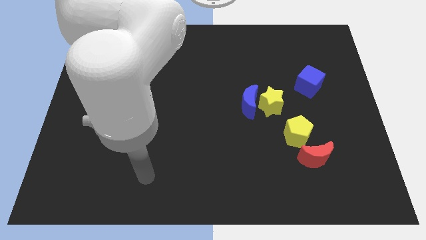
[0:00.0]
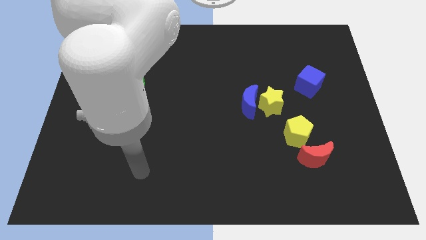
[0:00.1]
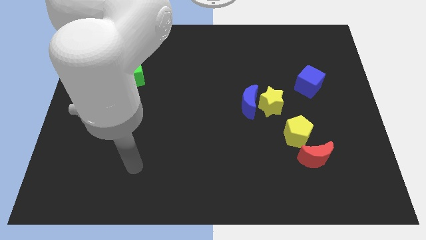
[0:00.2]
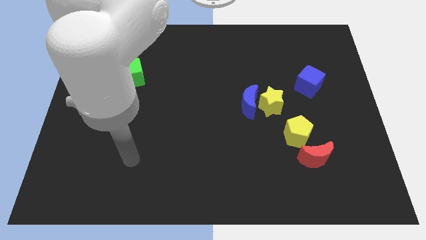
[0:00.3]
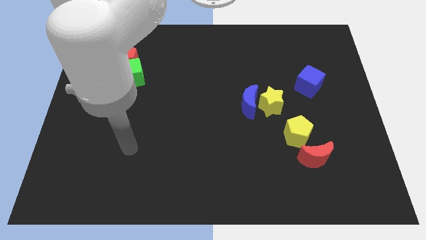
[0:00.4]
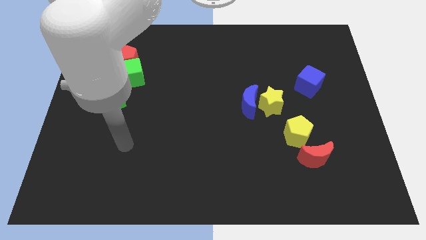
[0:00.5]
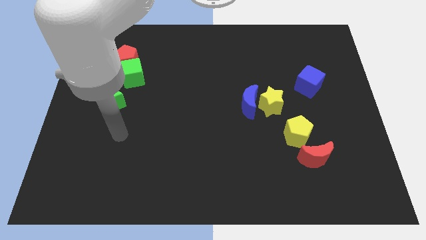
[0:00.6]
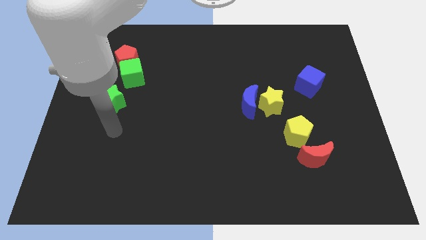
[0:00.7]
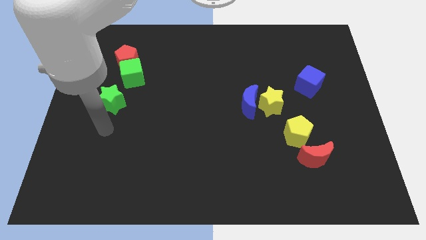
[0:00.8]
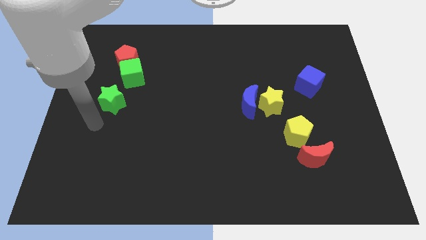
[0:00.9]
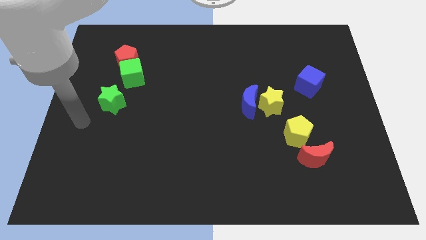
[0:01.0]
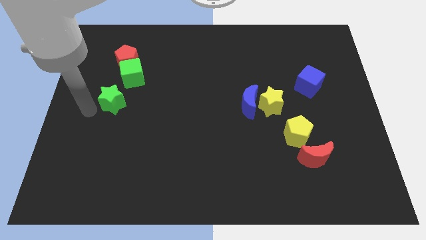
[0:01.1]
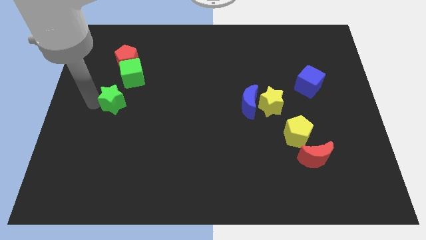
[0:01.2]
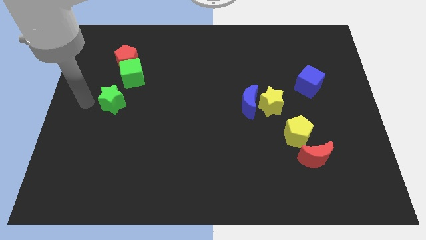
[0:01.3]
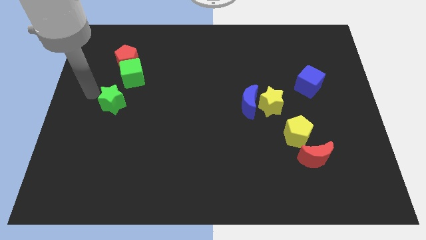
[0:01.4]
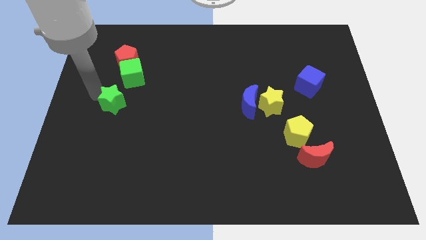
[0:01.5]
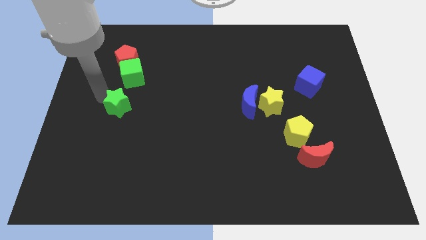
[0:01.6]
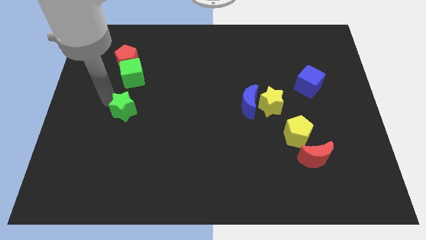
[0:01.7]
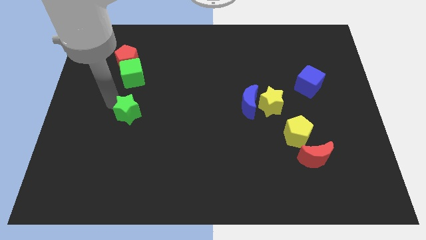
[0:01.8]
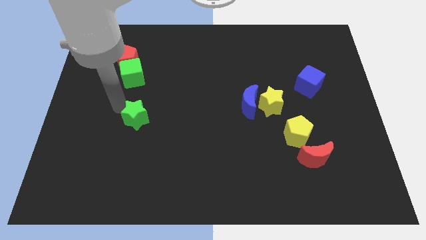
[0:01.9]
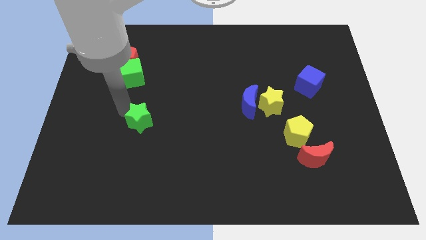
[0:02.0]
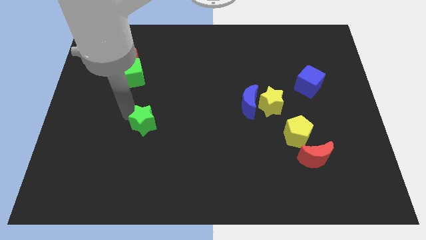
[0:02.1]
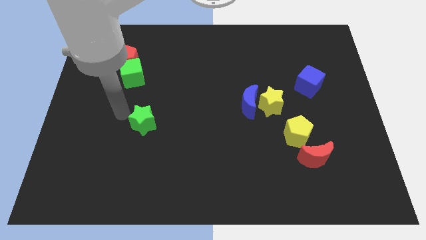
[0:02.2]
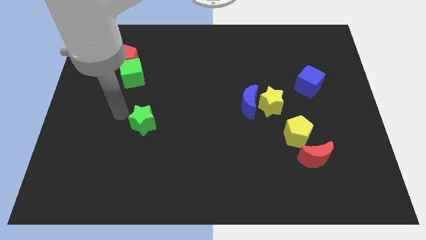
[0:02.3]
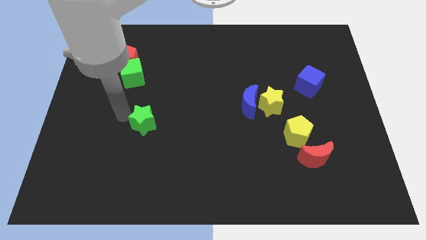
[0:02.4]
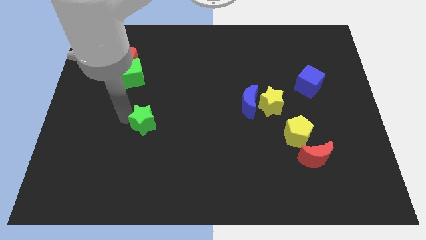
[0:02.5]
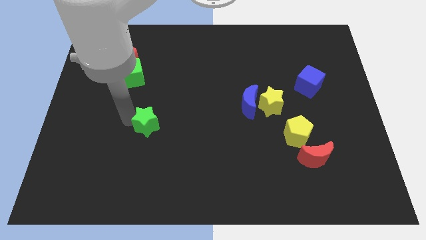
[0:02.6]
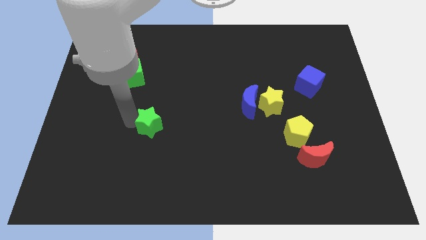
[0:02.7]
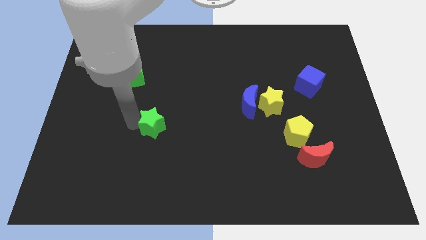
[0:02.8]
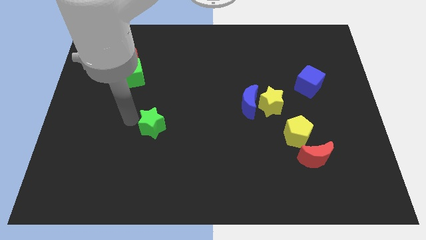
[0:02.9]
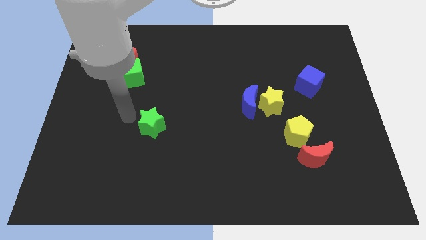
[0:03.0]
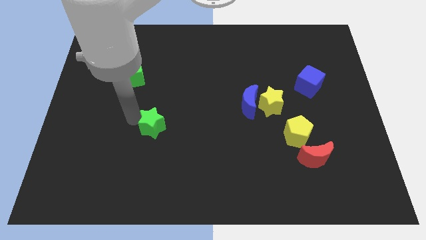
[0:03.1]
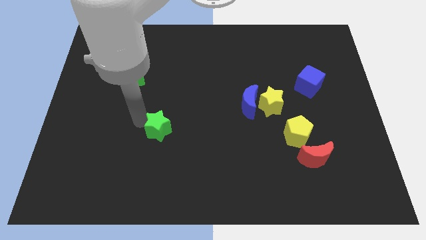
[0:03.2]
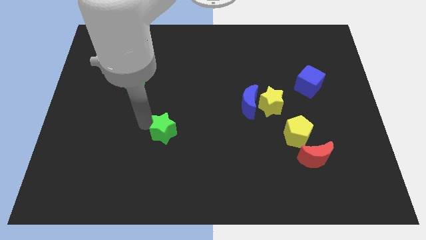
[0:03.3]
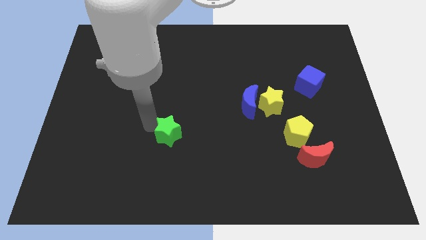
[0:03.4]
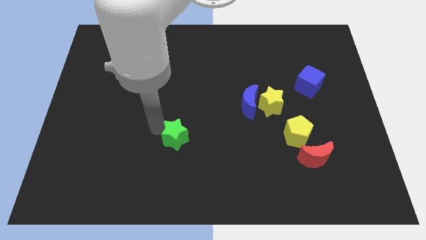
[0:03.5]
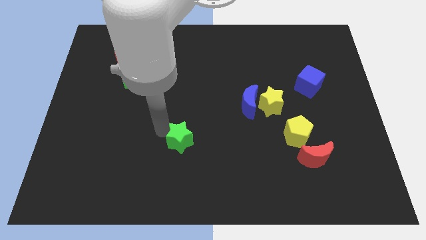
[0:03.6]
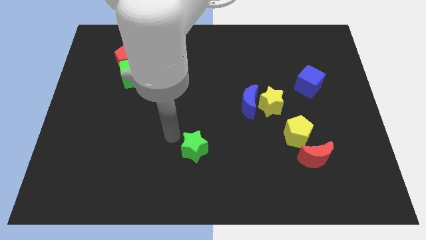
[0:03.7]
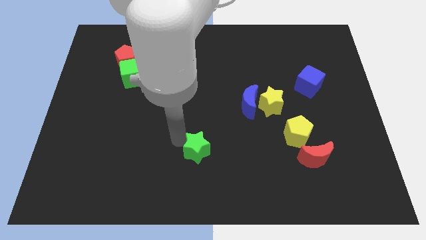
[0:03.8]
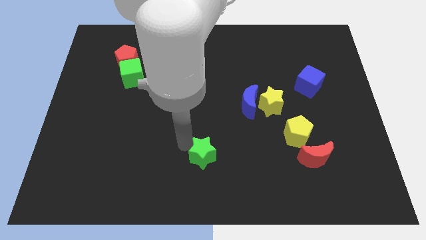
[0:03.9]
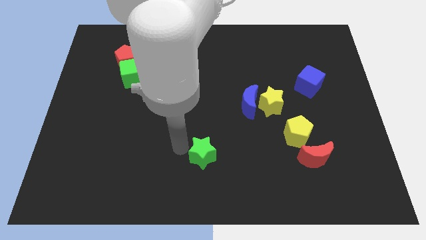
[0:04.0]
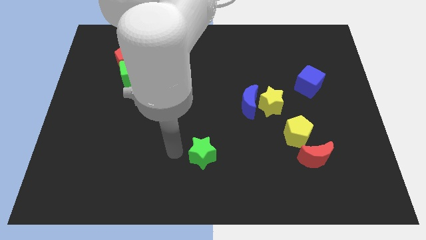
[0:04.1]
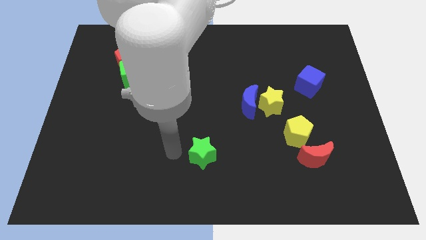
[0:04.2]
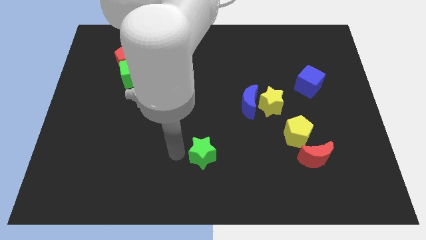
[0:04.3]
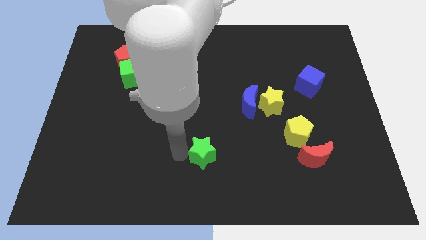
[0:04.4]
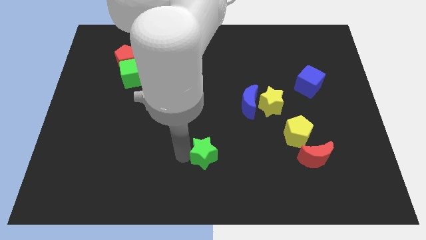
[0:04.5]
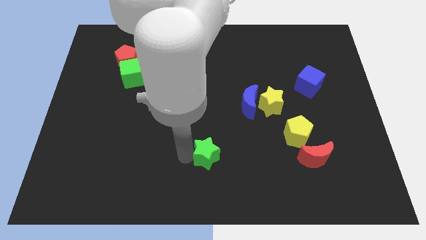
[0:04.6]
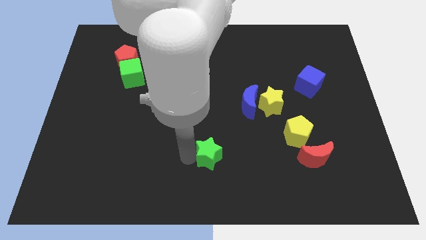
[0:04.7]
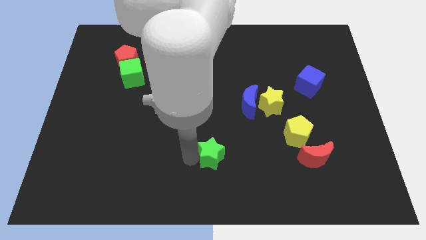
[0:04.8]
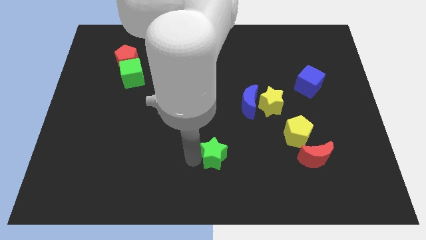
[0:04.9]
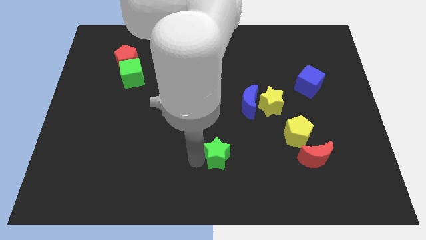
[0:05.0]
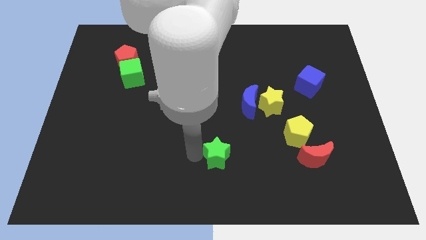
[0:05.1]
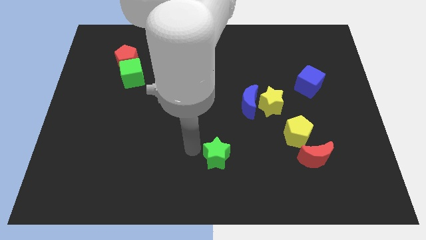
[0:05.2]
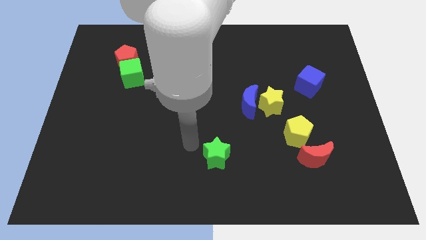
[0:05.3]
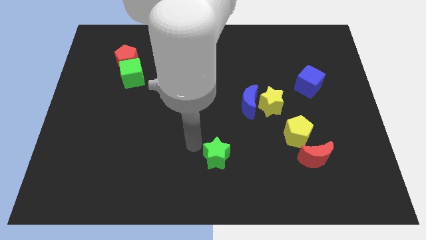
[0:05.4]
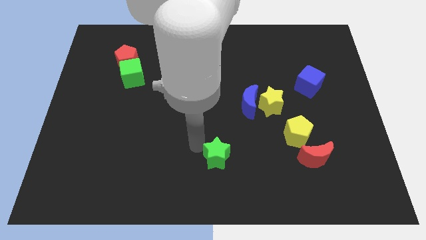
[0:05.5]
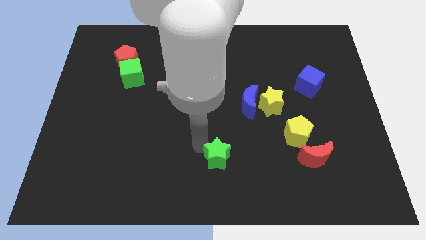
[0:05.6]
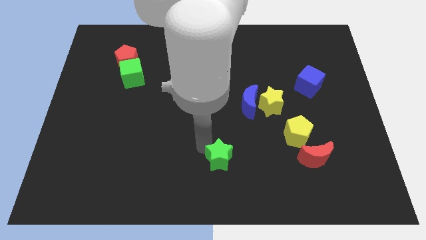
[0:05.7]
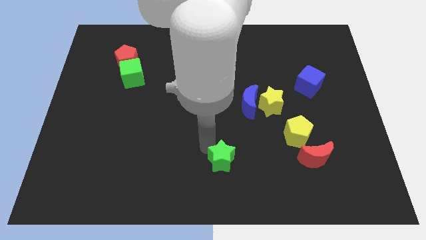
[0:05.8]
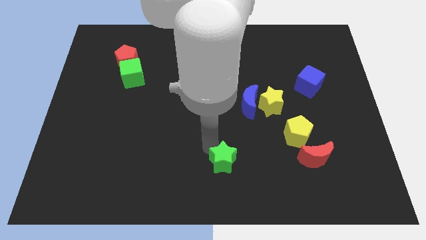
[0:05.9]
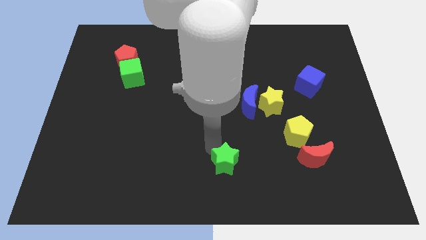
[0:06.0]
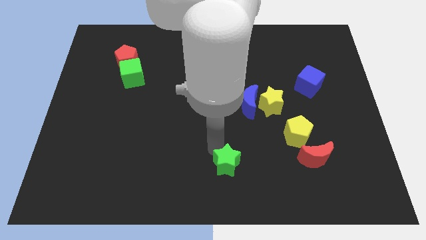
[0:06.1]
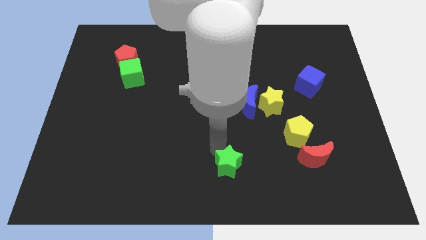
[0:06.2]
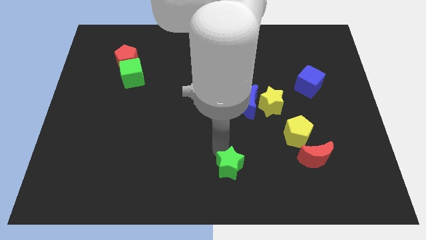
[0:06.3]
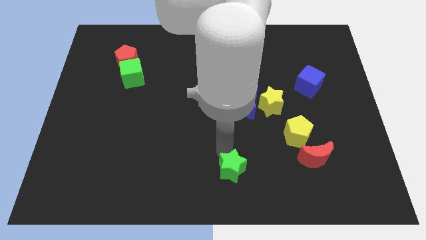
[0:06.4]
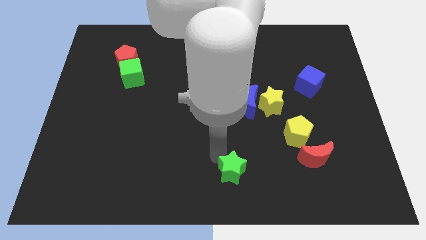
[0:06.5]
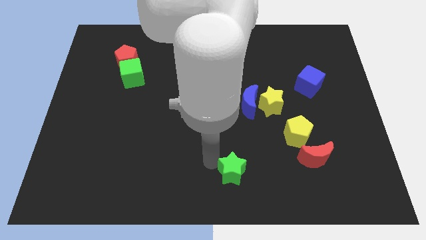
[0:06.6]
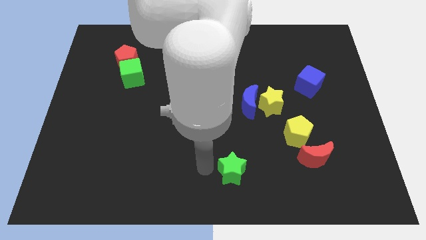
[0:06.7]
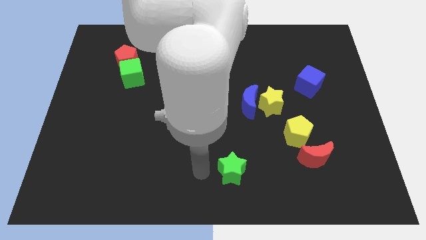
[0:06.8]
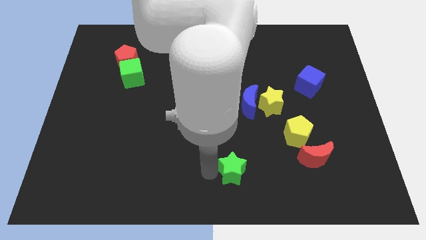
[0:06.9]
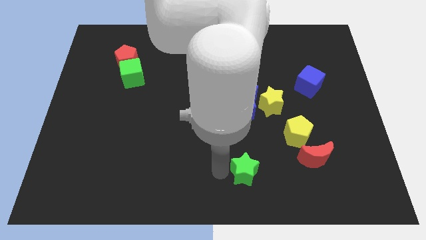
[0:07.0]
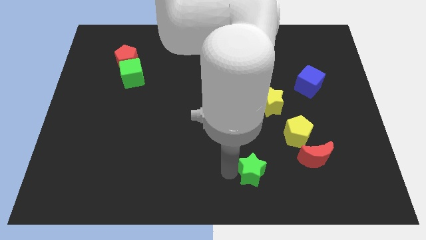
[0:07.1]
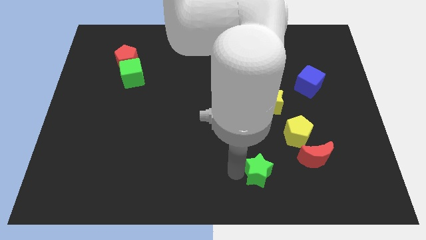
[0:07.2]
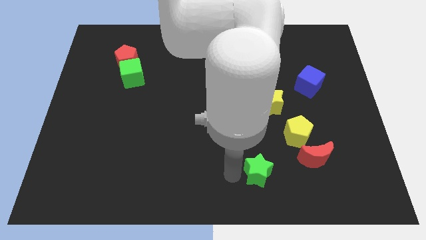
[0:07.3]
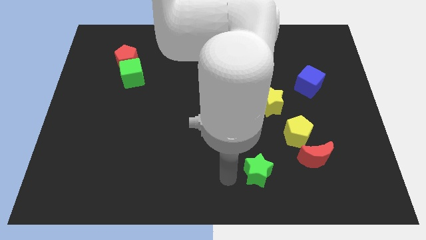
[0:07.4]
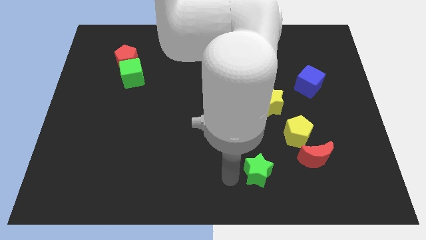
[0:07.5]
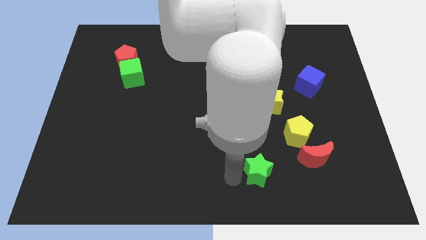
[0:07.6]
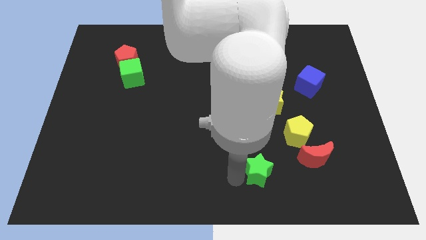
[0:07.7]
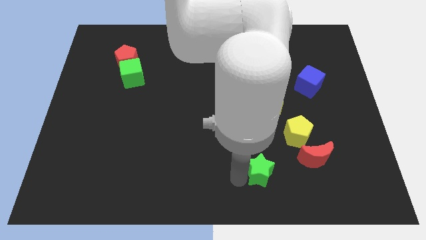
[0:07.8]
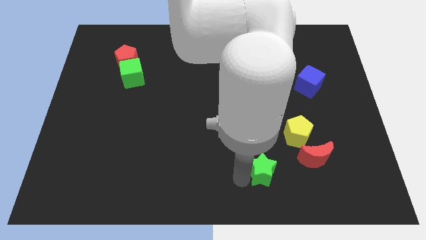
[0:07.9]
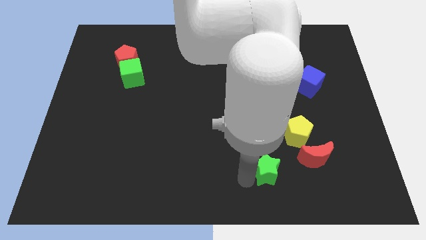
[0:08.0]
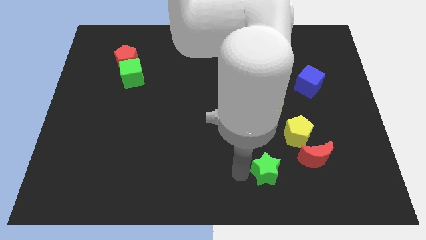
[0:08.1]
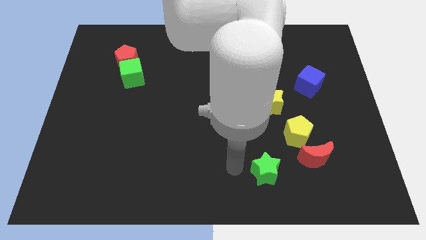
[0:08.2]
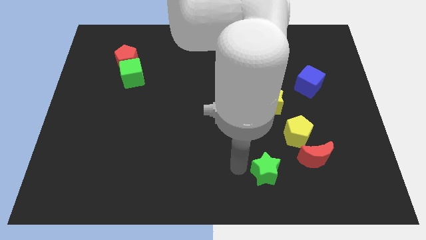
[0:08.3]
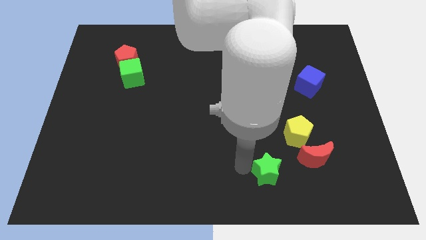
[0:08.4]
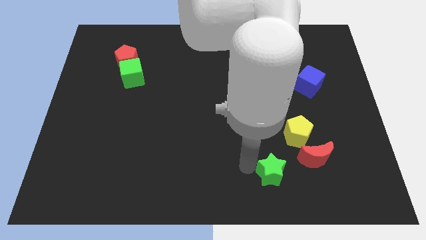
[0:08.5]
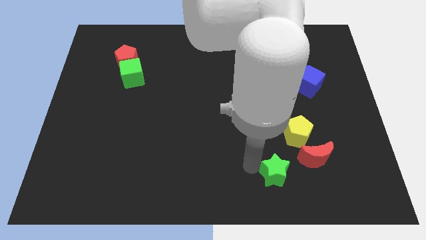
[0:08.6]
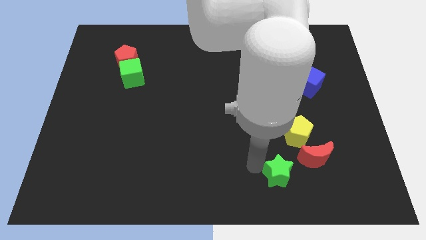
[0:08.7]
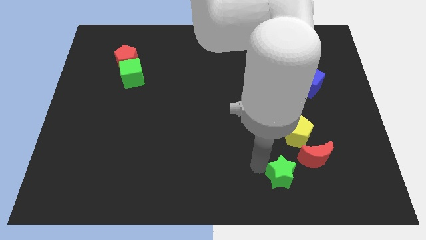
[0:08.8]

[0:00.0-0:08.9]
push the green star to the bottom of the yellow pentagon
